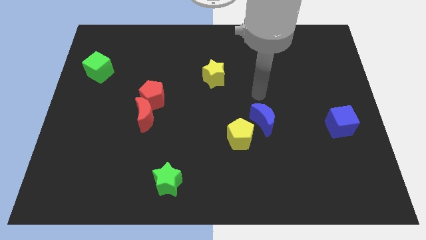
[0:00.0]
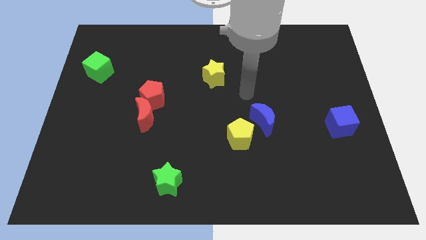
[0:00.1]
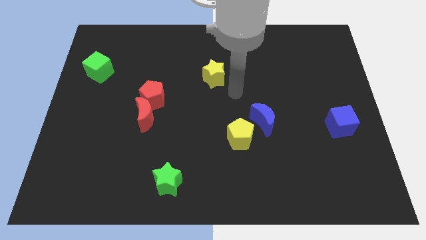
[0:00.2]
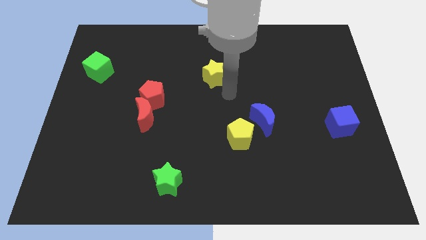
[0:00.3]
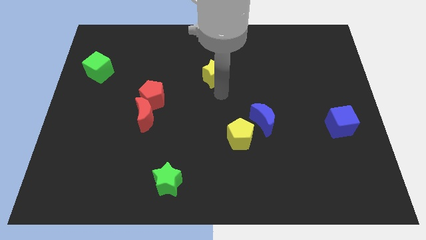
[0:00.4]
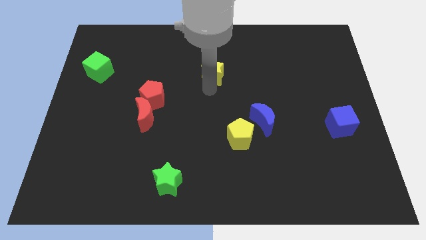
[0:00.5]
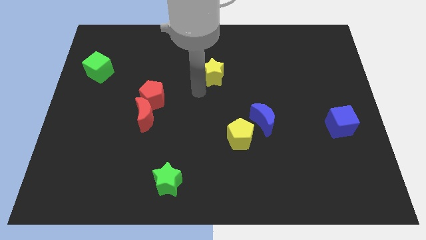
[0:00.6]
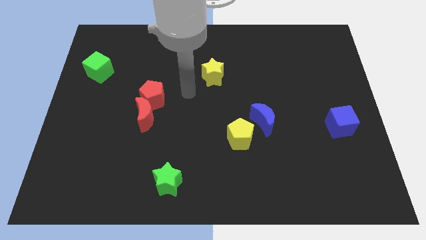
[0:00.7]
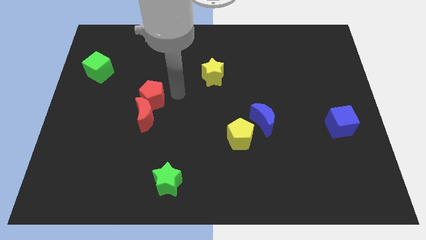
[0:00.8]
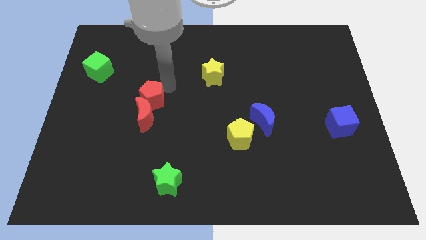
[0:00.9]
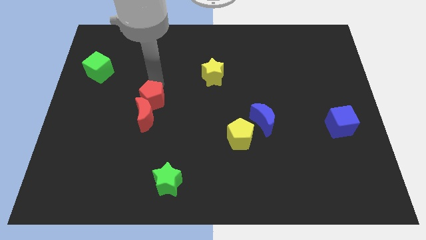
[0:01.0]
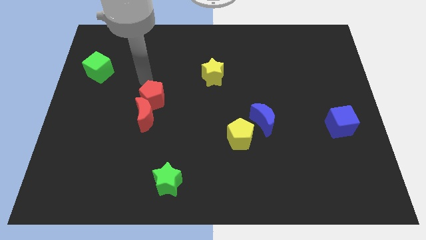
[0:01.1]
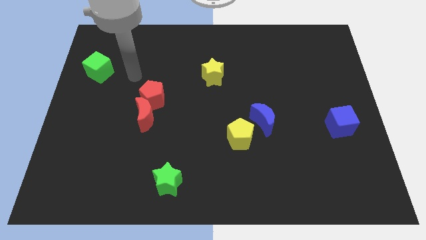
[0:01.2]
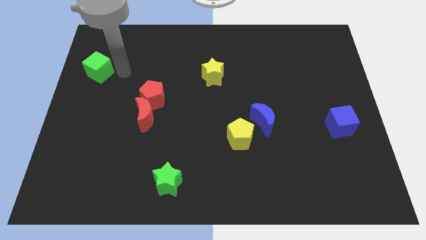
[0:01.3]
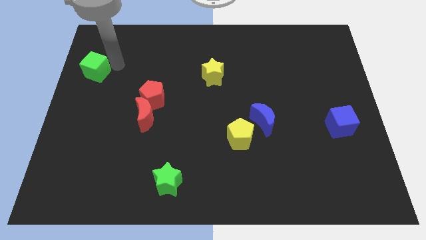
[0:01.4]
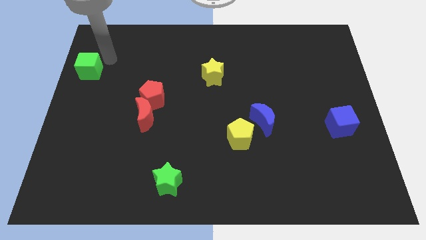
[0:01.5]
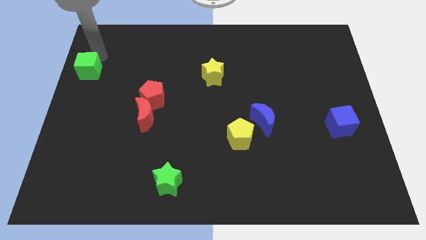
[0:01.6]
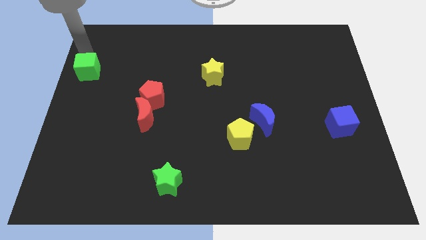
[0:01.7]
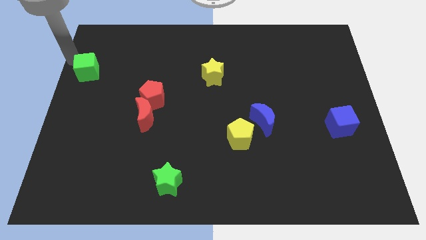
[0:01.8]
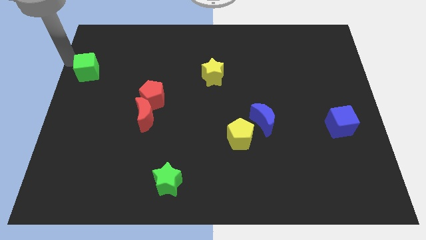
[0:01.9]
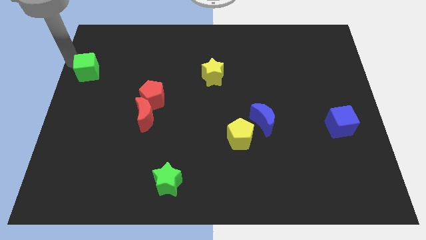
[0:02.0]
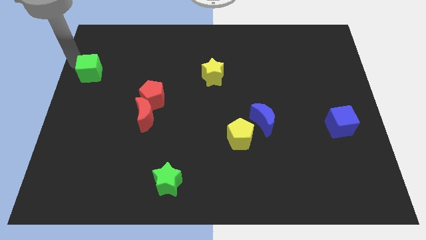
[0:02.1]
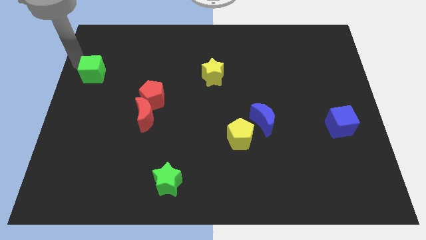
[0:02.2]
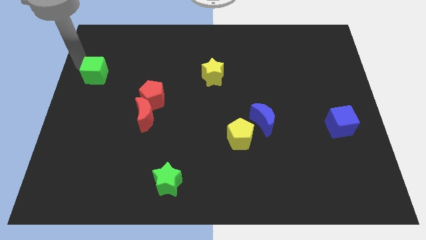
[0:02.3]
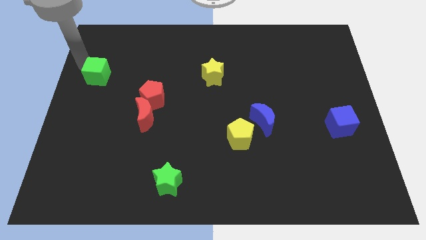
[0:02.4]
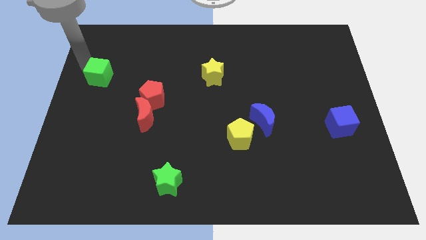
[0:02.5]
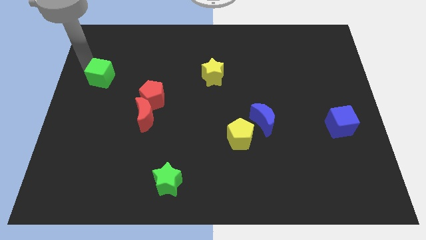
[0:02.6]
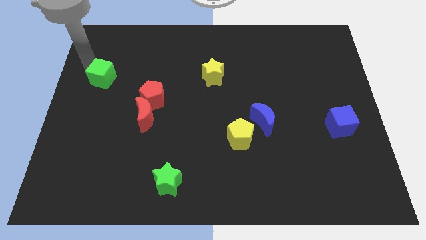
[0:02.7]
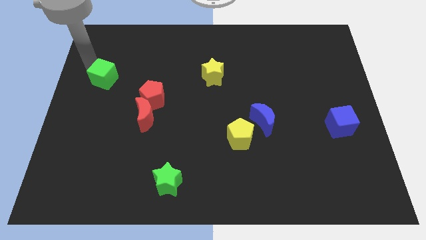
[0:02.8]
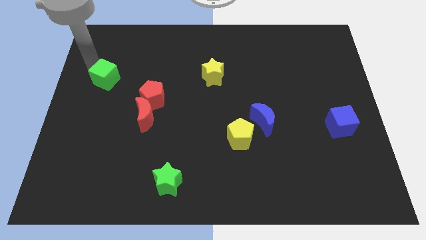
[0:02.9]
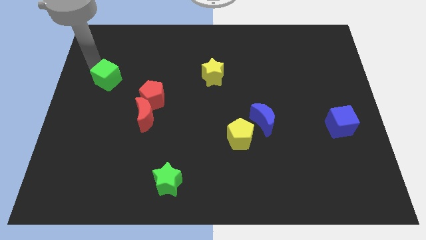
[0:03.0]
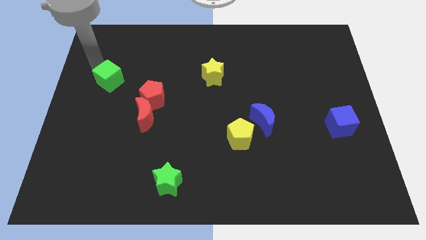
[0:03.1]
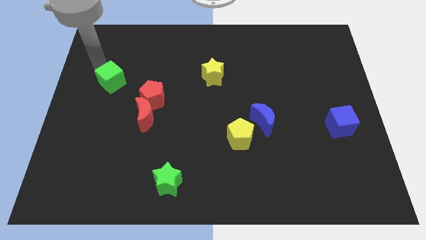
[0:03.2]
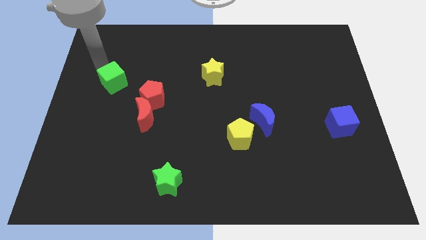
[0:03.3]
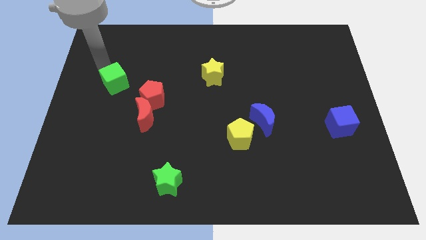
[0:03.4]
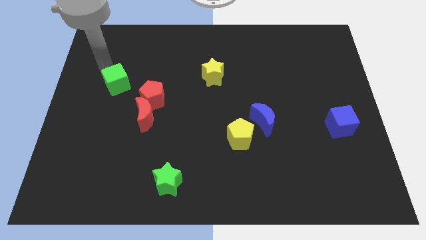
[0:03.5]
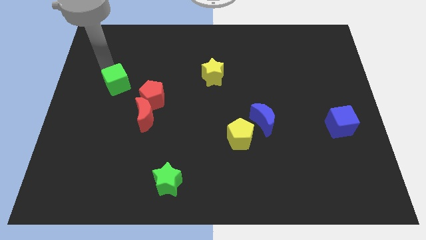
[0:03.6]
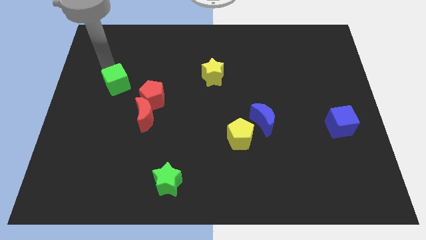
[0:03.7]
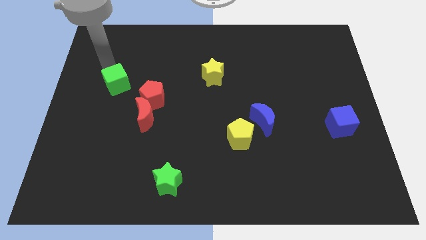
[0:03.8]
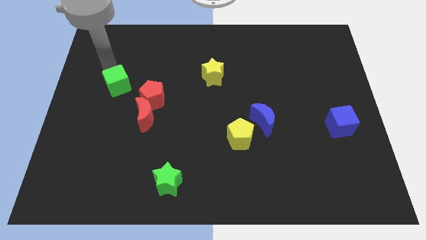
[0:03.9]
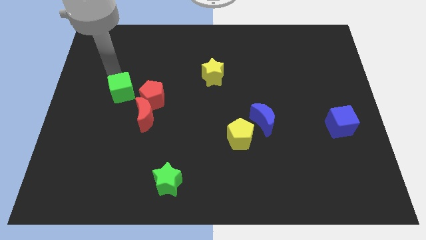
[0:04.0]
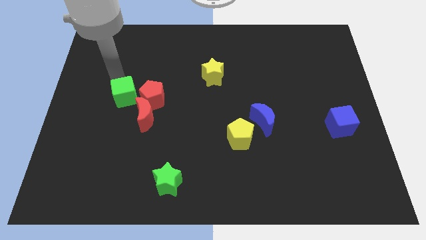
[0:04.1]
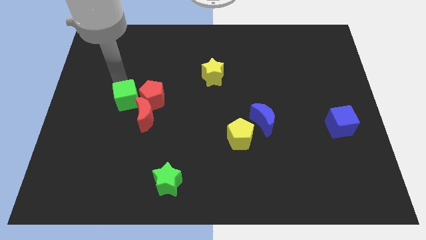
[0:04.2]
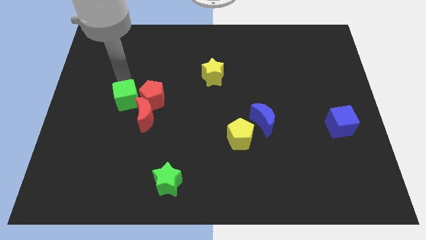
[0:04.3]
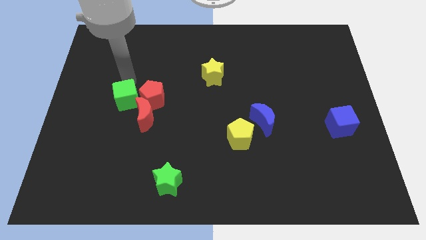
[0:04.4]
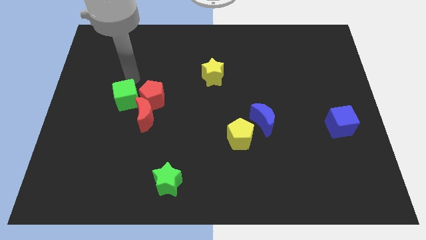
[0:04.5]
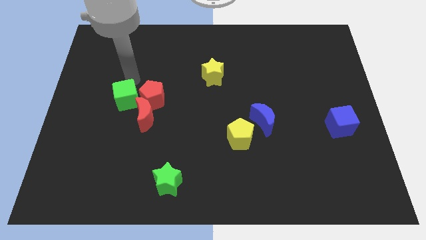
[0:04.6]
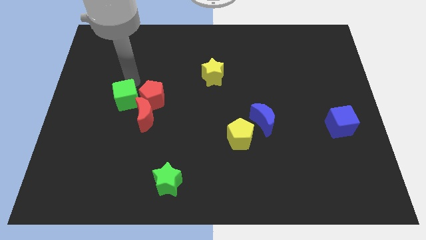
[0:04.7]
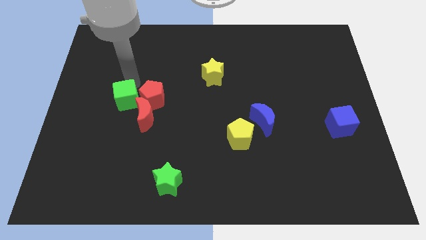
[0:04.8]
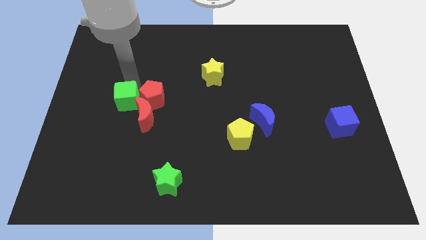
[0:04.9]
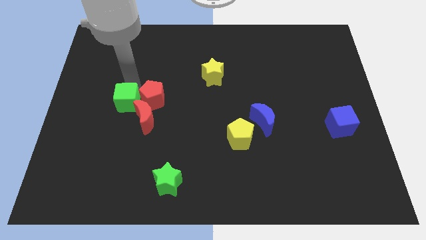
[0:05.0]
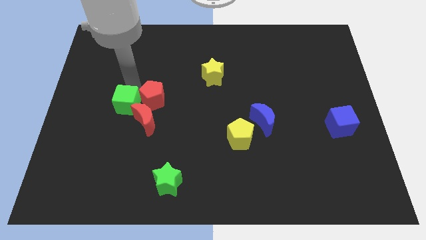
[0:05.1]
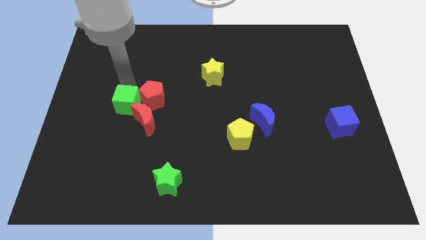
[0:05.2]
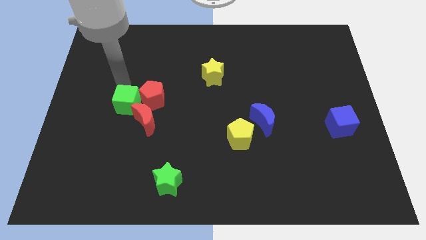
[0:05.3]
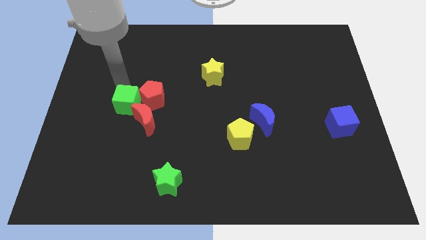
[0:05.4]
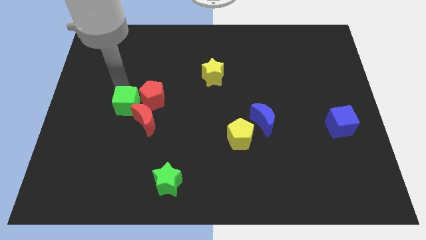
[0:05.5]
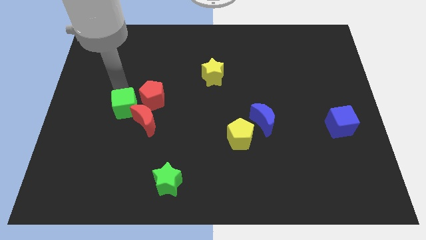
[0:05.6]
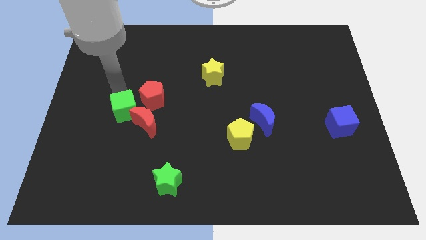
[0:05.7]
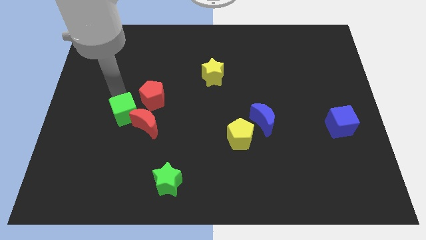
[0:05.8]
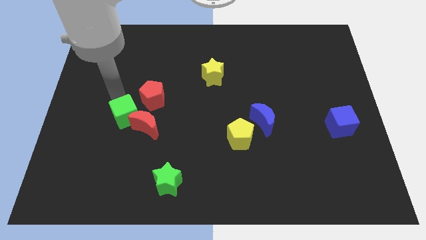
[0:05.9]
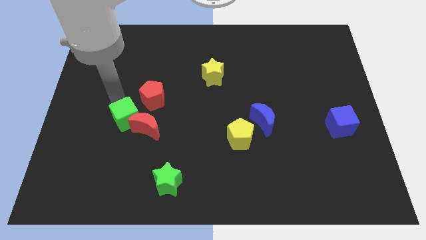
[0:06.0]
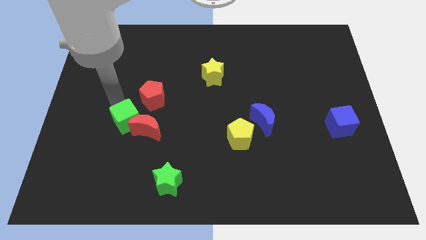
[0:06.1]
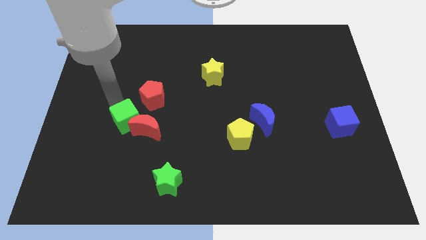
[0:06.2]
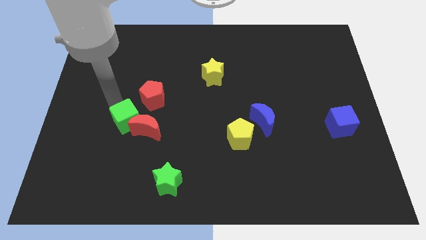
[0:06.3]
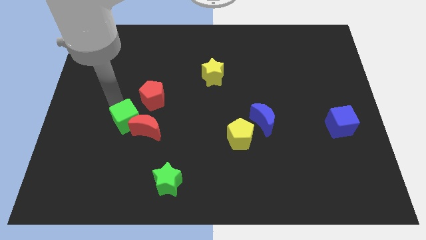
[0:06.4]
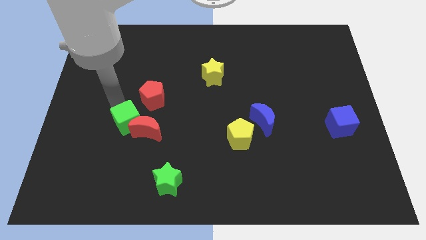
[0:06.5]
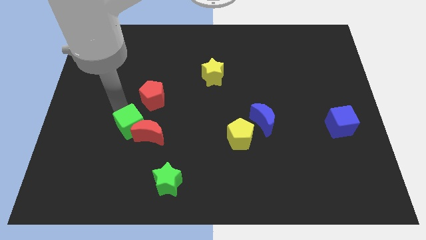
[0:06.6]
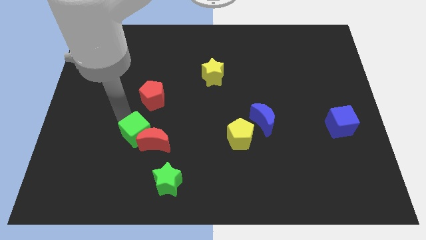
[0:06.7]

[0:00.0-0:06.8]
push the green cube downwards and then right

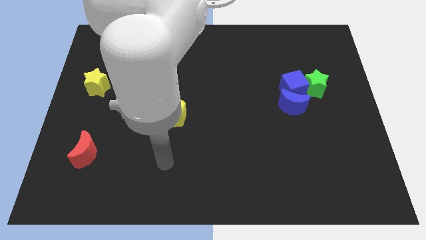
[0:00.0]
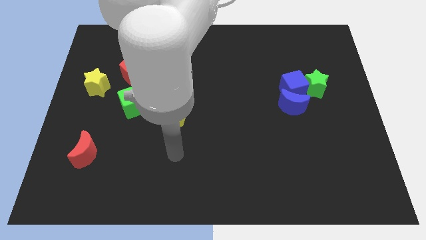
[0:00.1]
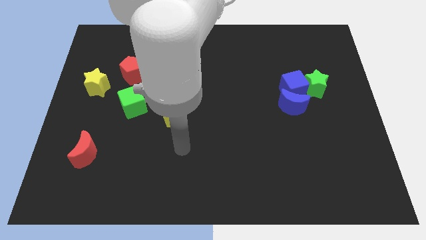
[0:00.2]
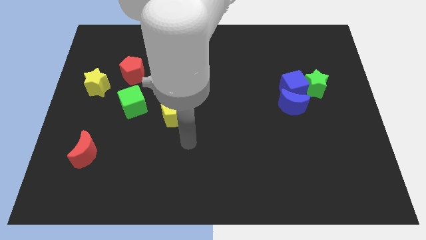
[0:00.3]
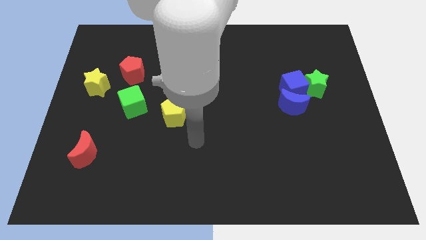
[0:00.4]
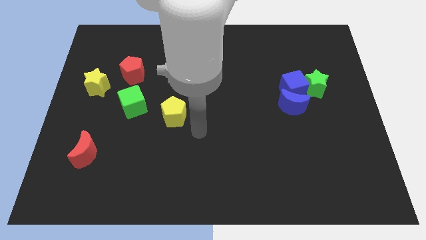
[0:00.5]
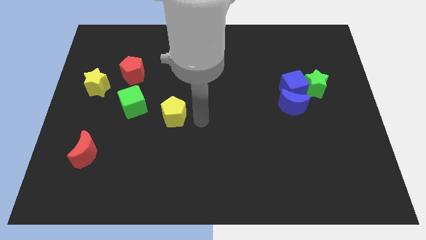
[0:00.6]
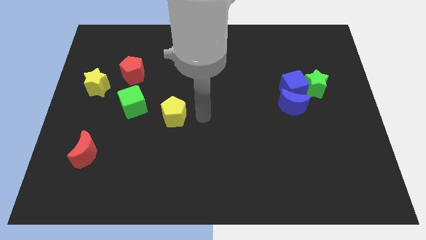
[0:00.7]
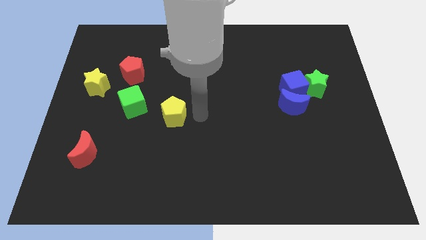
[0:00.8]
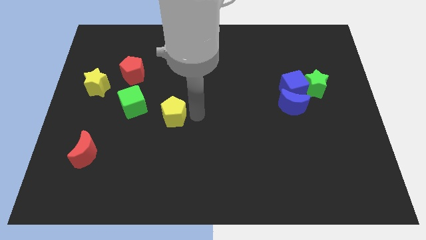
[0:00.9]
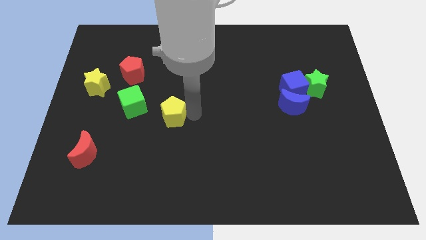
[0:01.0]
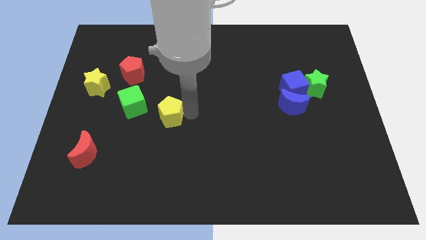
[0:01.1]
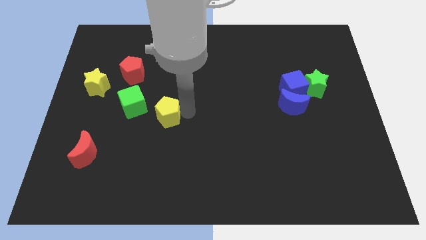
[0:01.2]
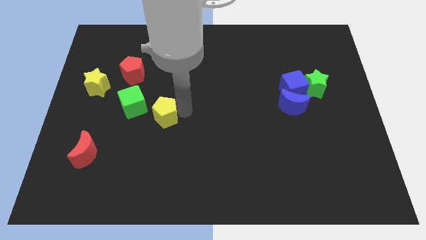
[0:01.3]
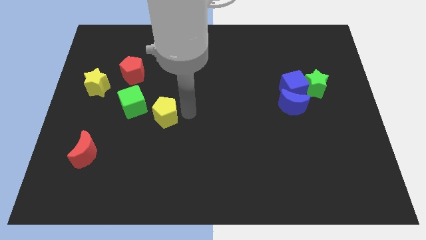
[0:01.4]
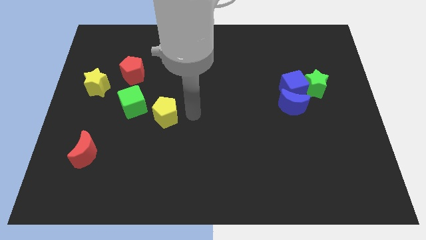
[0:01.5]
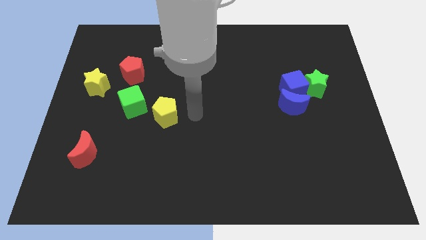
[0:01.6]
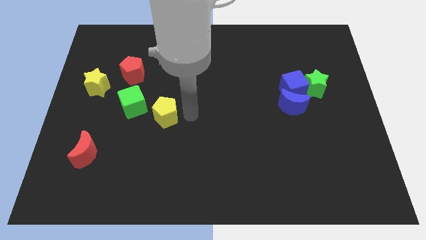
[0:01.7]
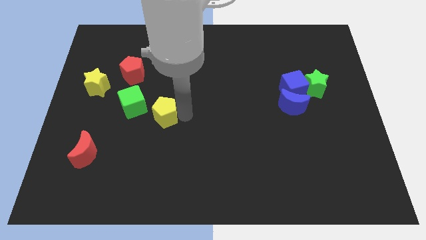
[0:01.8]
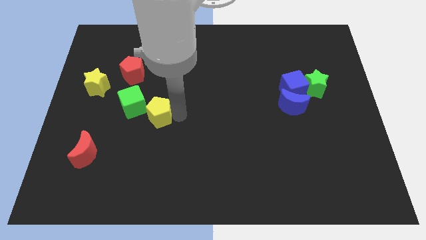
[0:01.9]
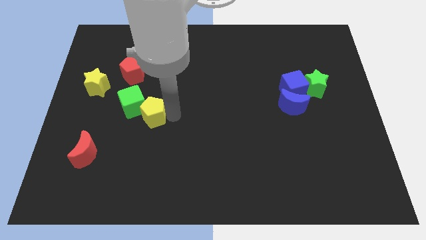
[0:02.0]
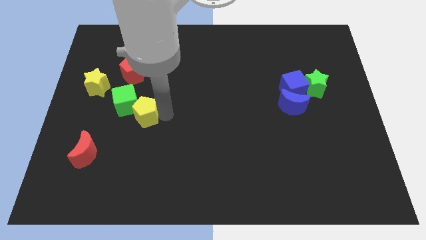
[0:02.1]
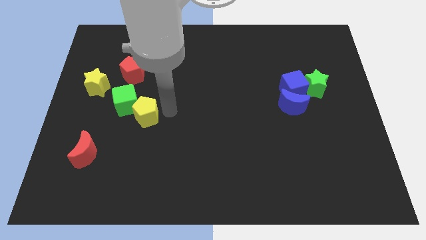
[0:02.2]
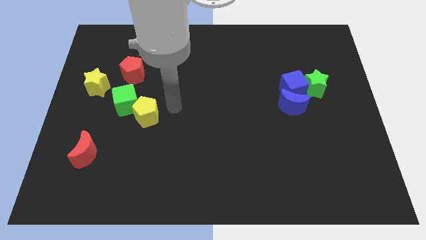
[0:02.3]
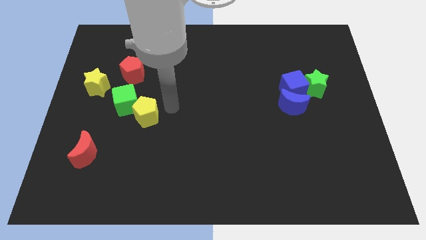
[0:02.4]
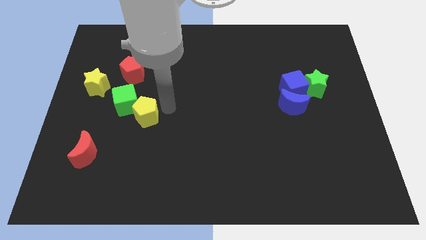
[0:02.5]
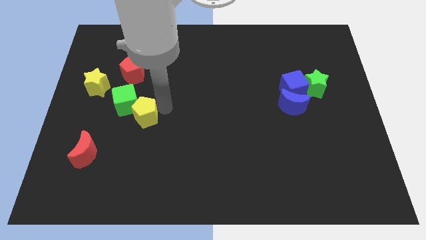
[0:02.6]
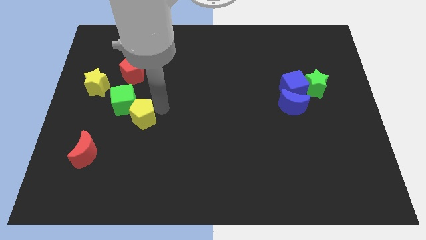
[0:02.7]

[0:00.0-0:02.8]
slide the yellow pentagon left slightly
